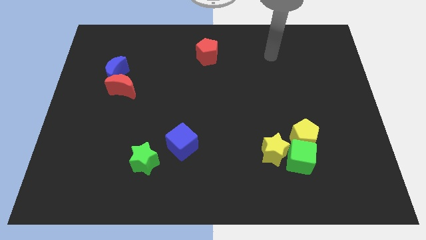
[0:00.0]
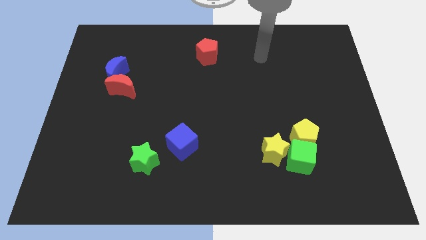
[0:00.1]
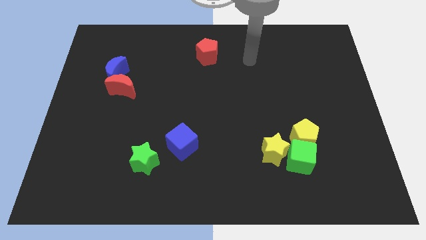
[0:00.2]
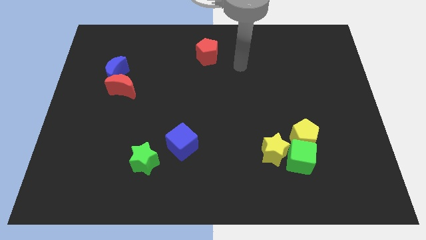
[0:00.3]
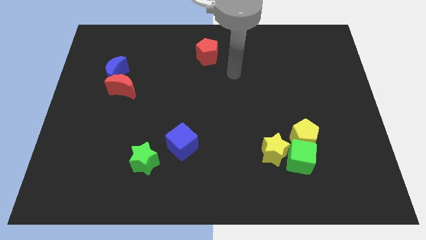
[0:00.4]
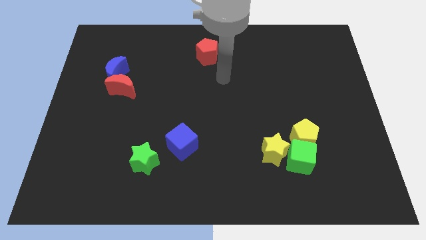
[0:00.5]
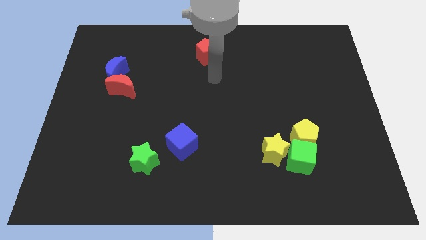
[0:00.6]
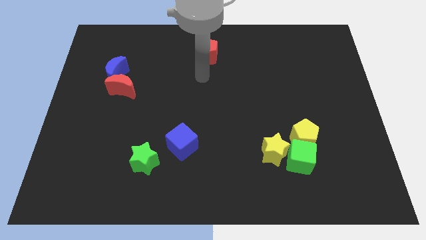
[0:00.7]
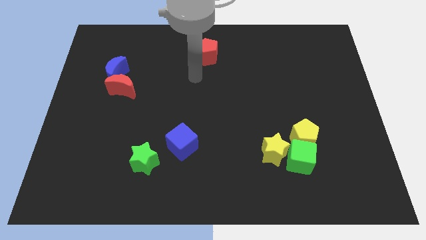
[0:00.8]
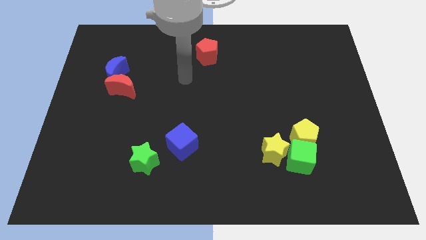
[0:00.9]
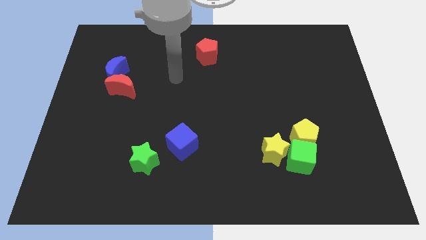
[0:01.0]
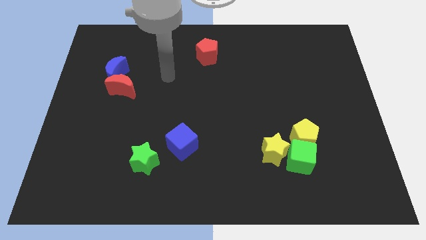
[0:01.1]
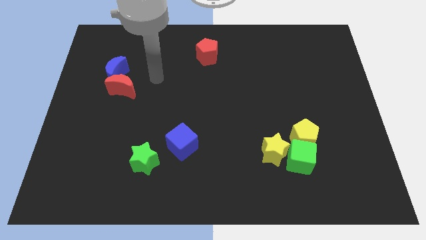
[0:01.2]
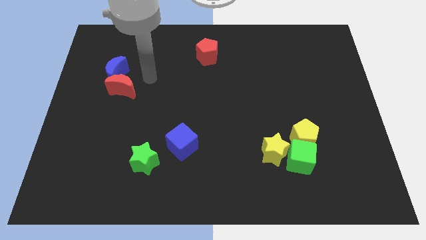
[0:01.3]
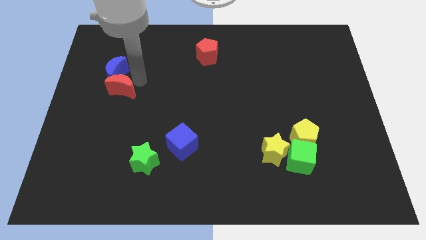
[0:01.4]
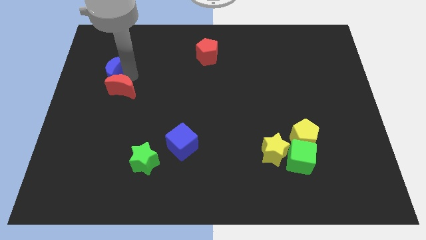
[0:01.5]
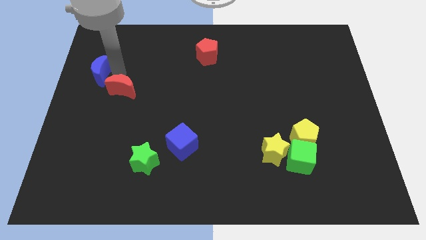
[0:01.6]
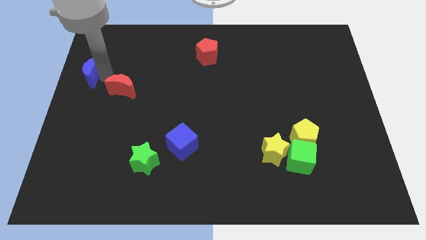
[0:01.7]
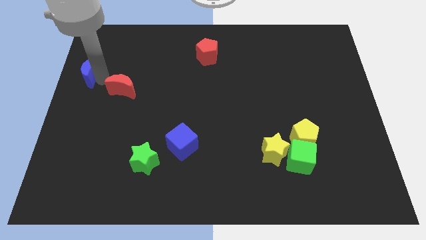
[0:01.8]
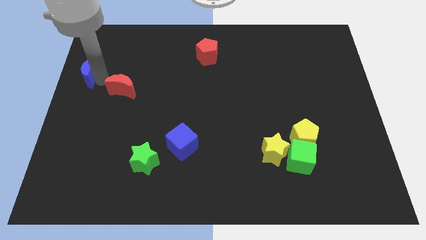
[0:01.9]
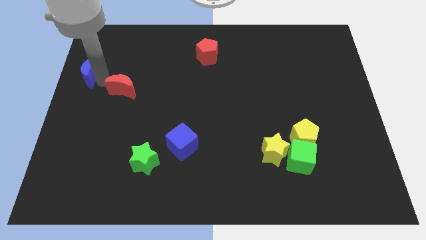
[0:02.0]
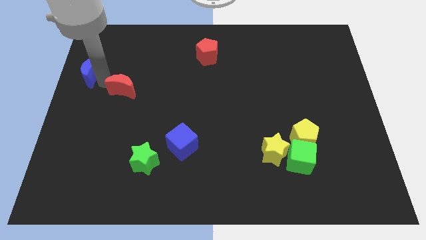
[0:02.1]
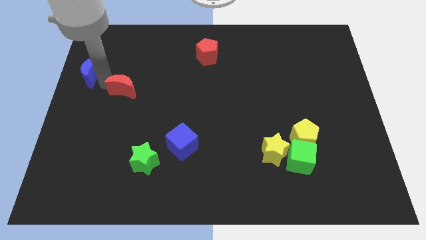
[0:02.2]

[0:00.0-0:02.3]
pull the red moon apart from the blue moon

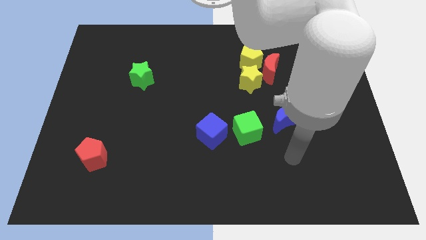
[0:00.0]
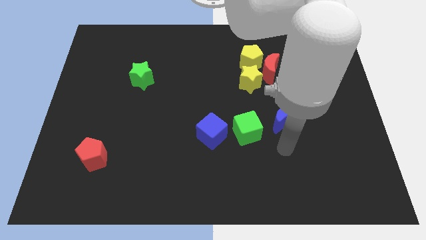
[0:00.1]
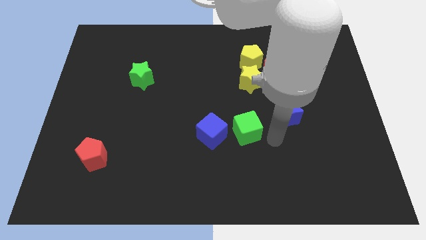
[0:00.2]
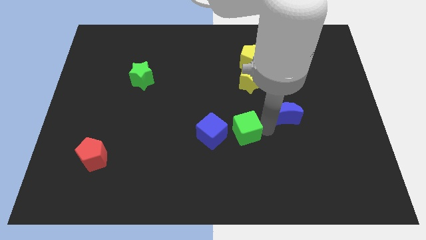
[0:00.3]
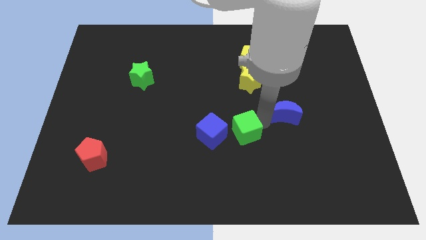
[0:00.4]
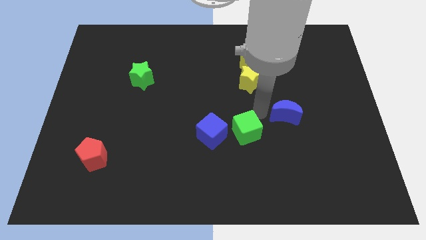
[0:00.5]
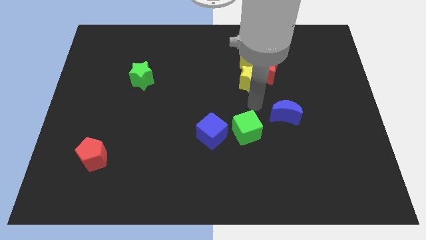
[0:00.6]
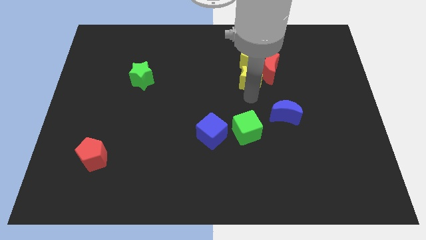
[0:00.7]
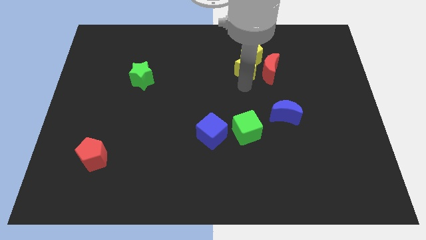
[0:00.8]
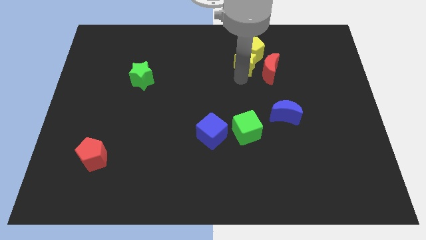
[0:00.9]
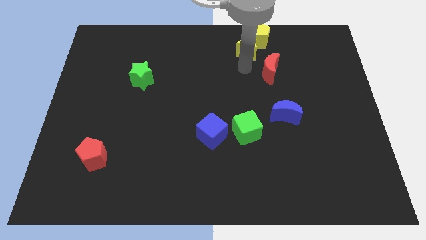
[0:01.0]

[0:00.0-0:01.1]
separate the red moon from the yellow pentagon and yellow star

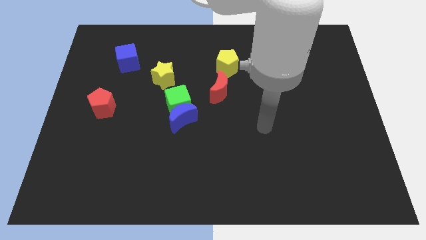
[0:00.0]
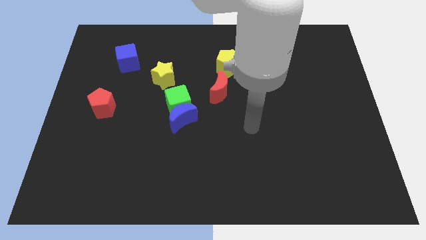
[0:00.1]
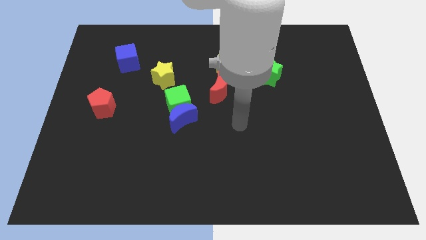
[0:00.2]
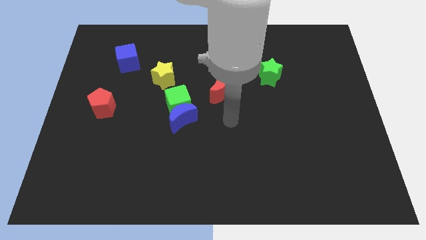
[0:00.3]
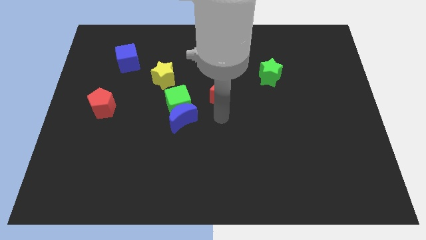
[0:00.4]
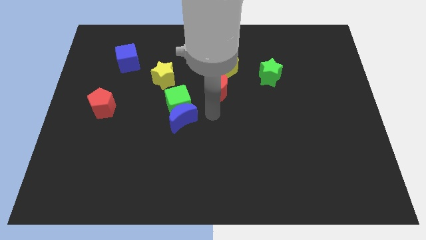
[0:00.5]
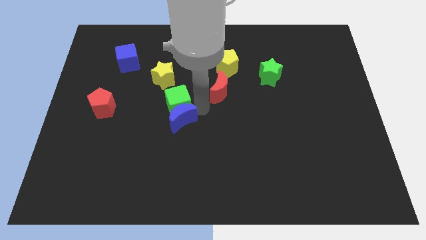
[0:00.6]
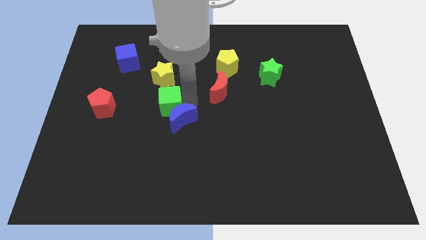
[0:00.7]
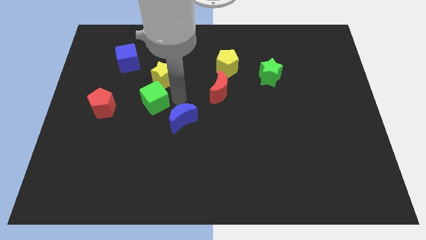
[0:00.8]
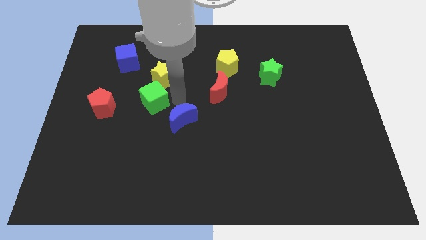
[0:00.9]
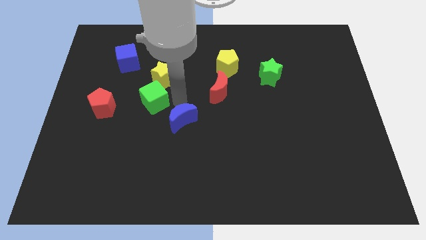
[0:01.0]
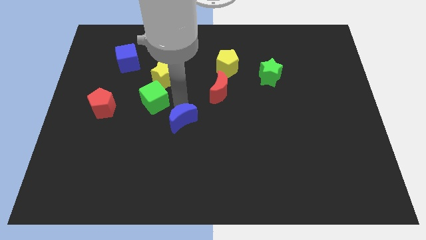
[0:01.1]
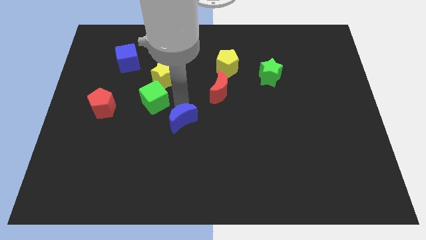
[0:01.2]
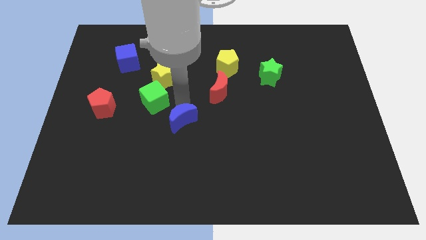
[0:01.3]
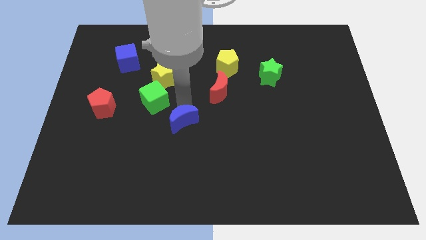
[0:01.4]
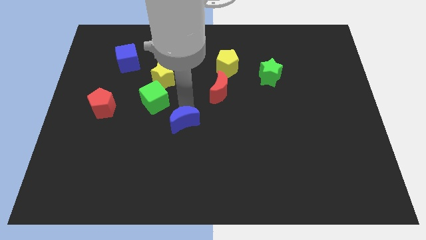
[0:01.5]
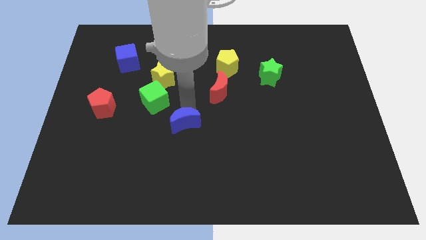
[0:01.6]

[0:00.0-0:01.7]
pull the blue moon apart from the green cube

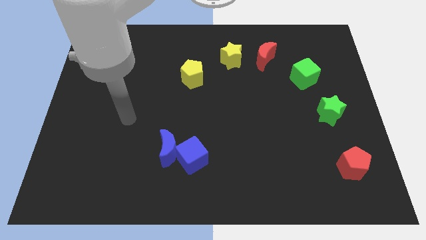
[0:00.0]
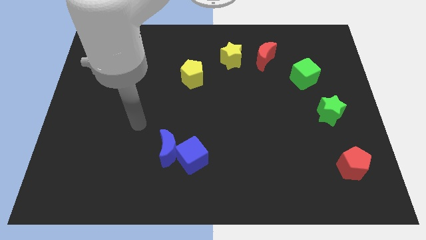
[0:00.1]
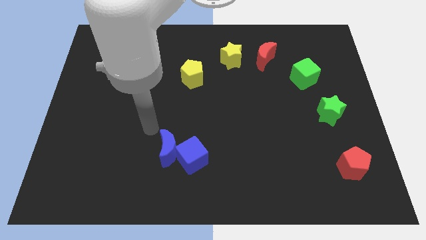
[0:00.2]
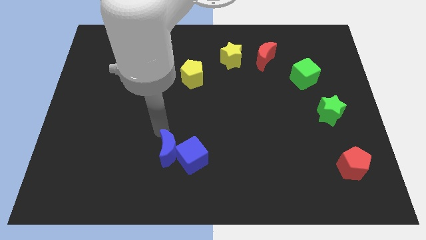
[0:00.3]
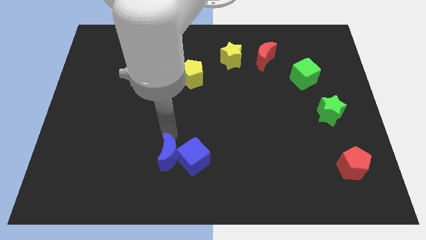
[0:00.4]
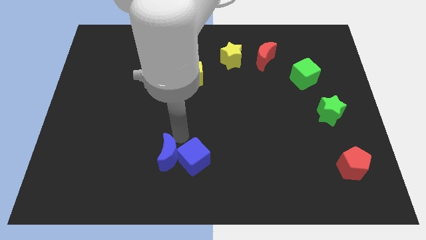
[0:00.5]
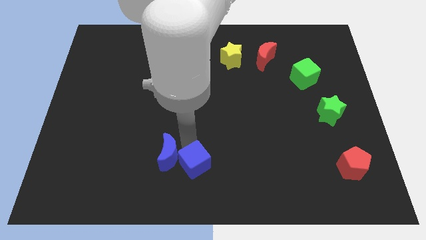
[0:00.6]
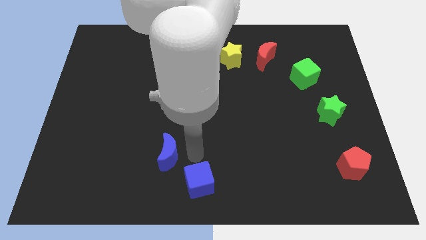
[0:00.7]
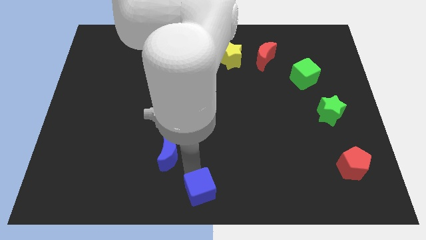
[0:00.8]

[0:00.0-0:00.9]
move the blue moon away from the blue cube

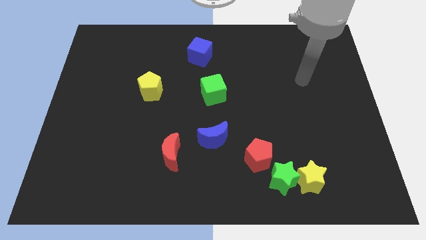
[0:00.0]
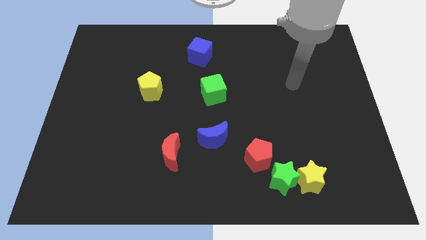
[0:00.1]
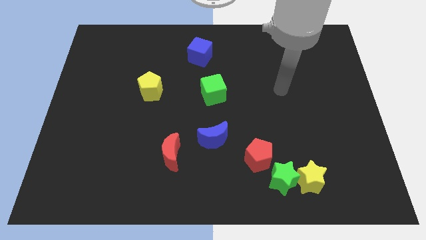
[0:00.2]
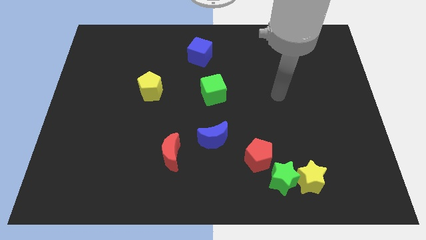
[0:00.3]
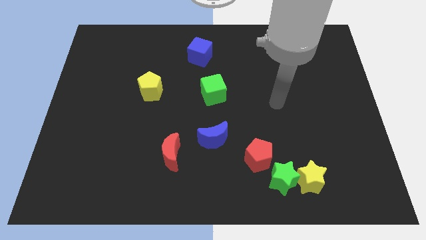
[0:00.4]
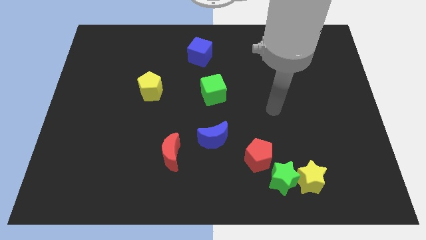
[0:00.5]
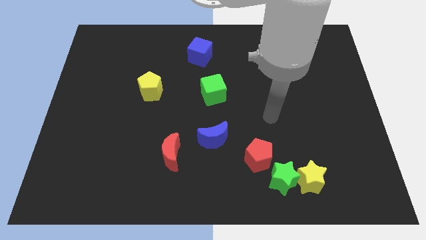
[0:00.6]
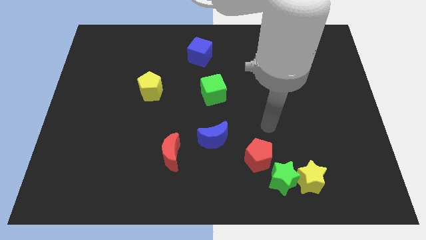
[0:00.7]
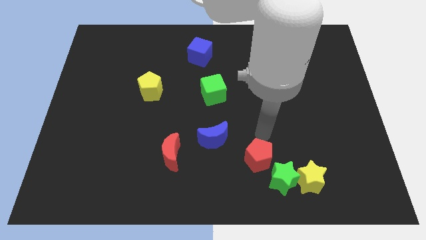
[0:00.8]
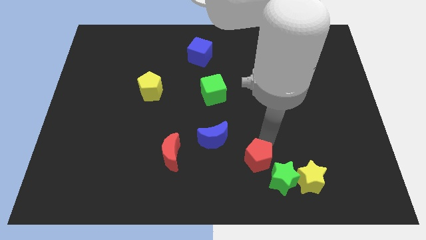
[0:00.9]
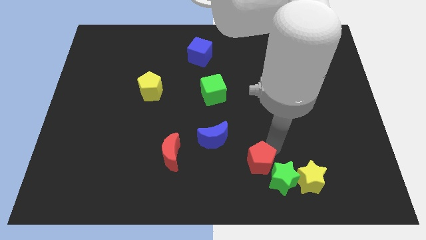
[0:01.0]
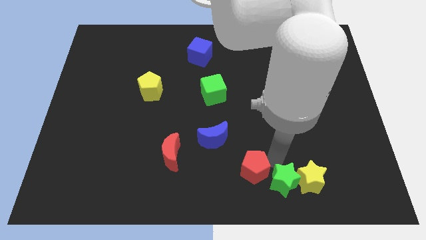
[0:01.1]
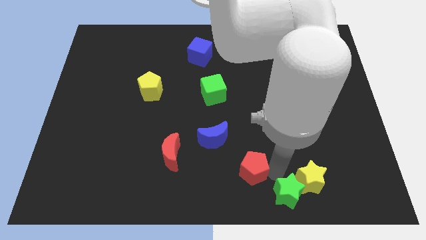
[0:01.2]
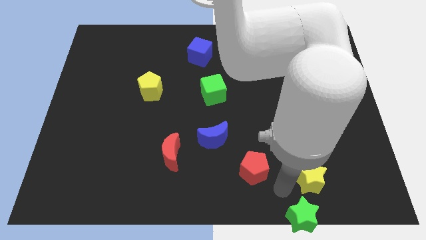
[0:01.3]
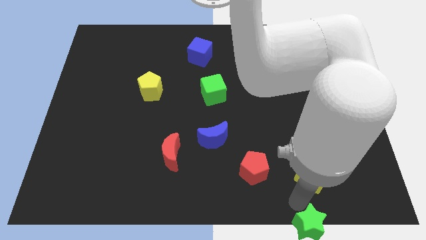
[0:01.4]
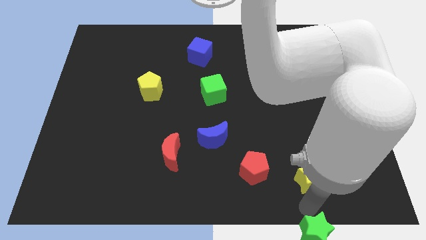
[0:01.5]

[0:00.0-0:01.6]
pull the yellow star apart from the green star

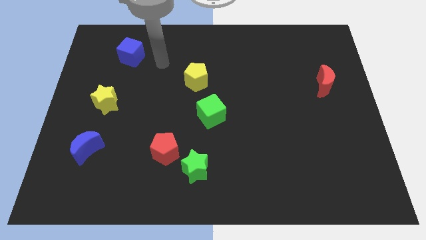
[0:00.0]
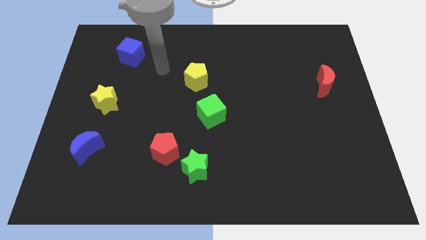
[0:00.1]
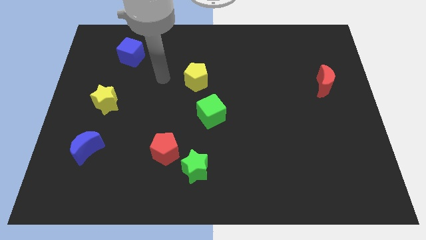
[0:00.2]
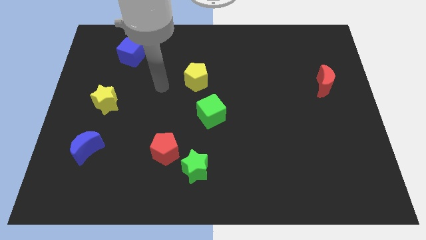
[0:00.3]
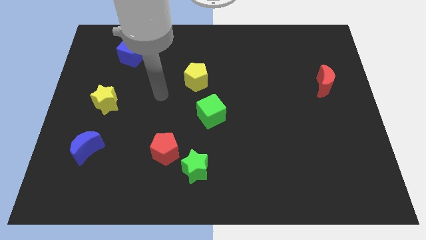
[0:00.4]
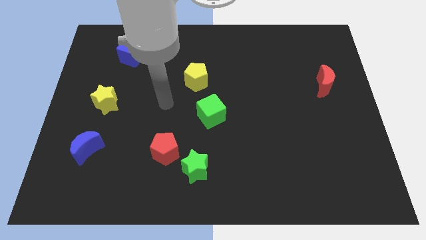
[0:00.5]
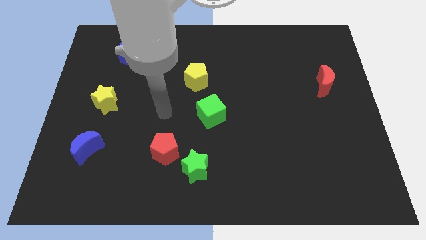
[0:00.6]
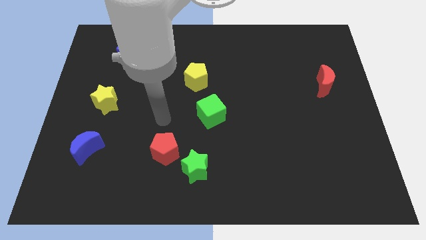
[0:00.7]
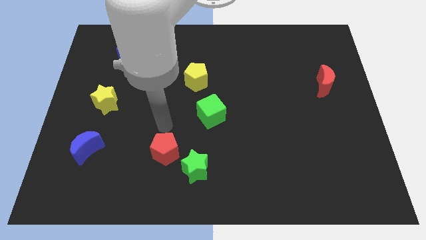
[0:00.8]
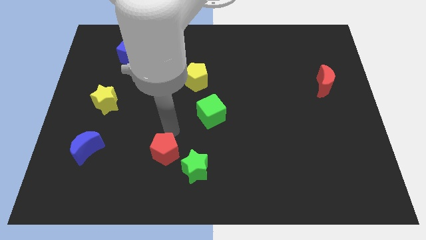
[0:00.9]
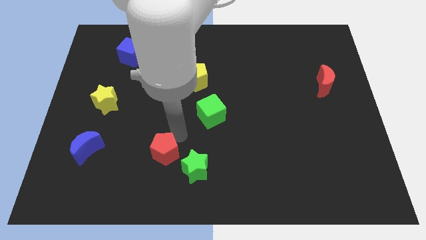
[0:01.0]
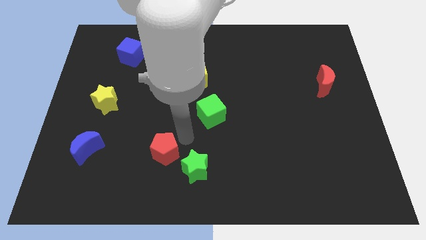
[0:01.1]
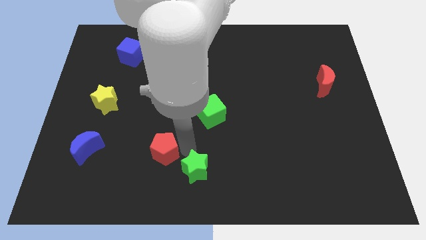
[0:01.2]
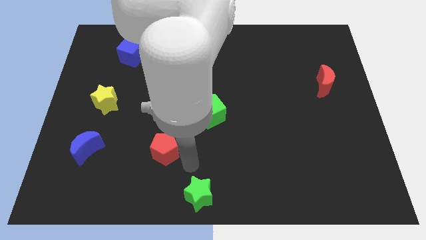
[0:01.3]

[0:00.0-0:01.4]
move the red pentagon away from the green star

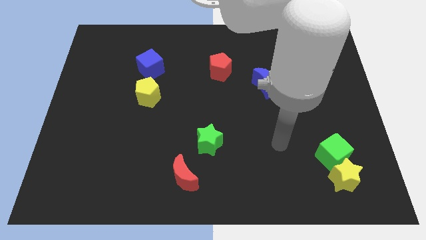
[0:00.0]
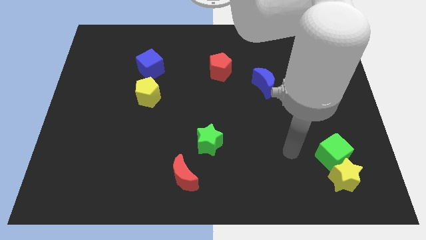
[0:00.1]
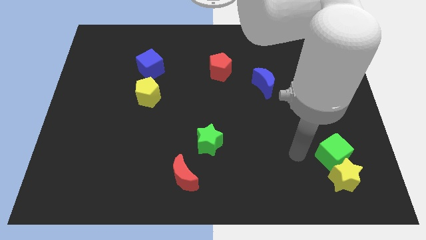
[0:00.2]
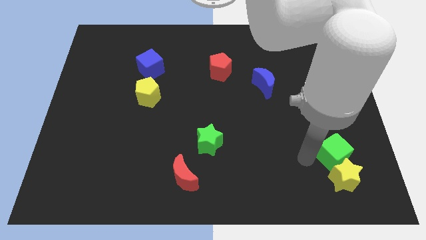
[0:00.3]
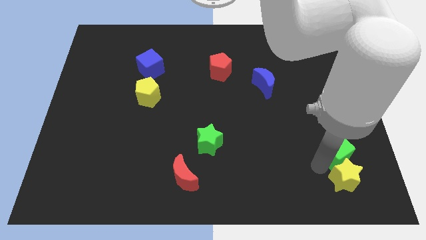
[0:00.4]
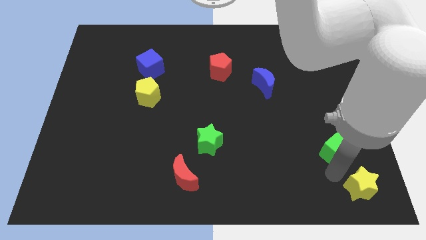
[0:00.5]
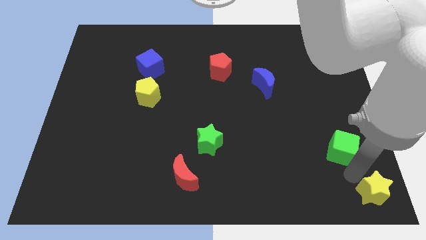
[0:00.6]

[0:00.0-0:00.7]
move the green cube away from the yellow star
